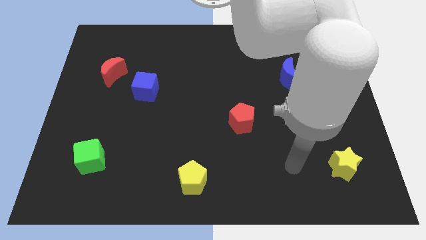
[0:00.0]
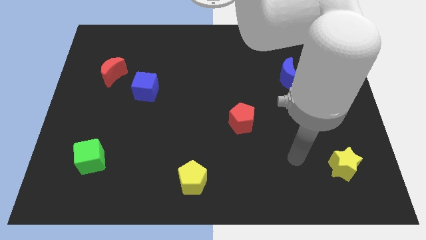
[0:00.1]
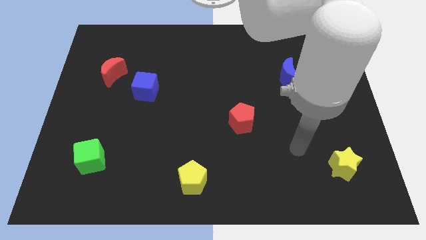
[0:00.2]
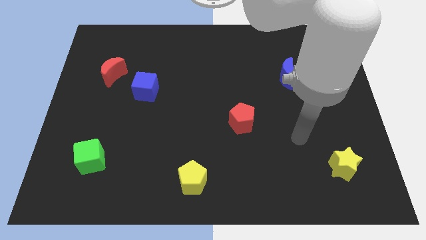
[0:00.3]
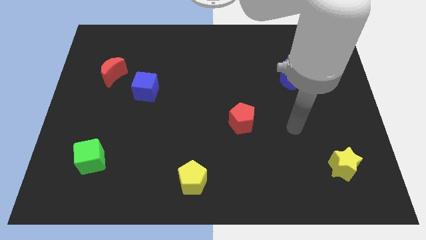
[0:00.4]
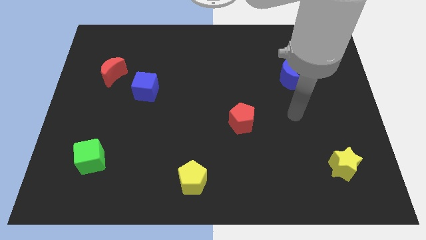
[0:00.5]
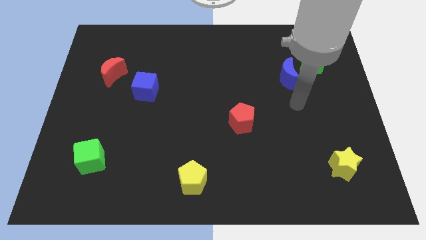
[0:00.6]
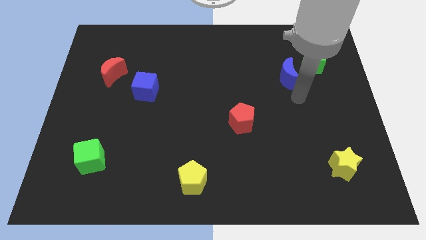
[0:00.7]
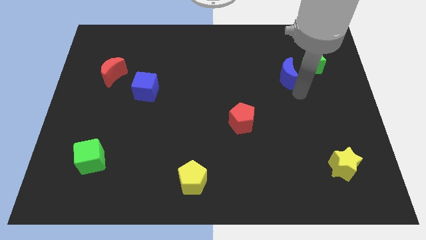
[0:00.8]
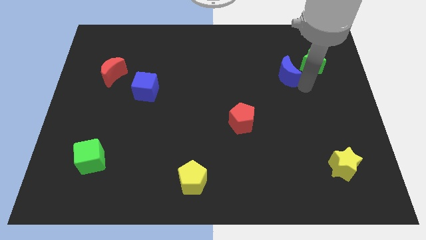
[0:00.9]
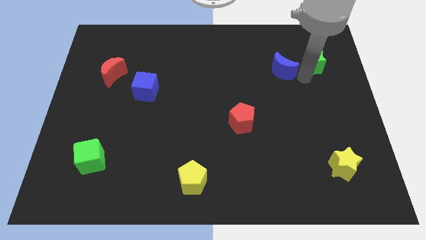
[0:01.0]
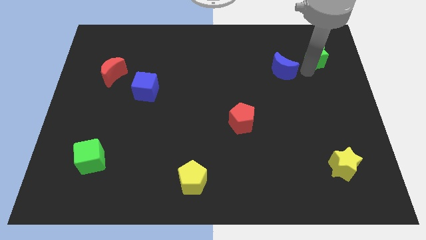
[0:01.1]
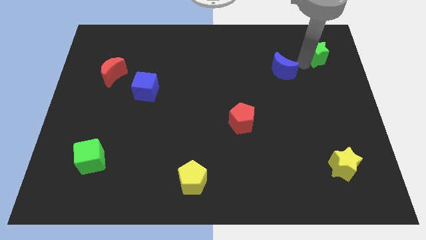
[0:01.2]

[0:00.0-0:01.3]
separate the blue moon from the green star

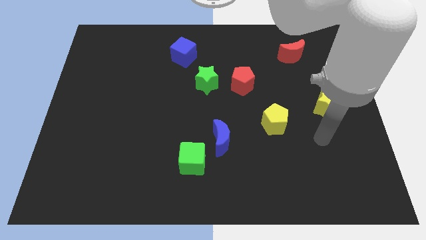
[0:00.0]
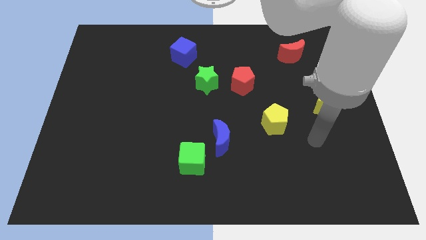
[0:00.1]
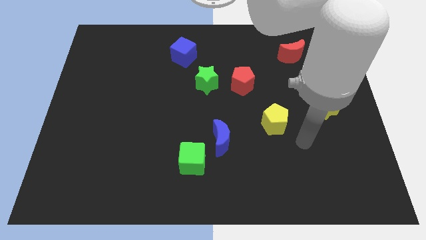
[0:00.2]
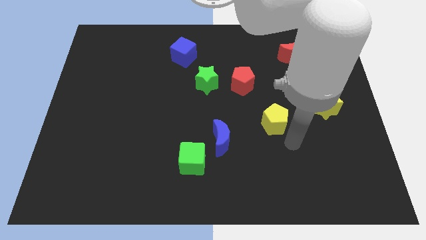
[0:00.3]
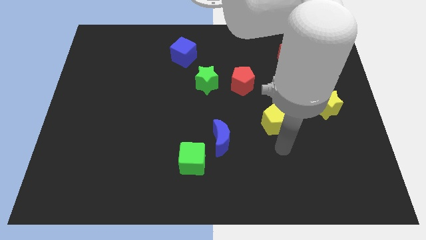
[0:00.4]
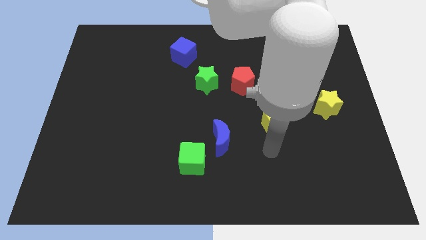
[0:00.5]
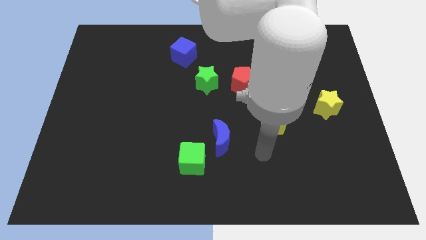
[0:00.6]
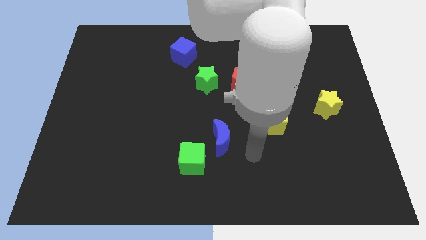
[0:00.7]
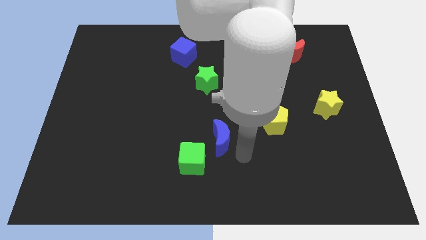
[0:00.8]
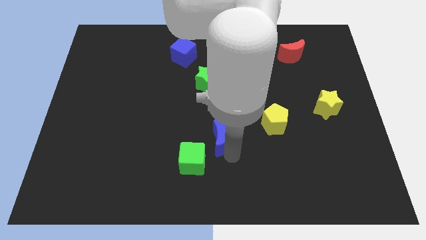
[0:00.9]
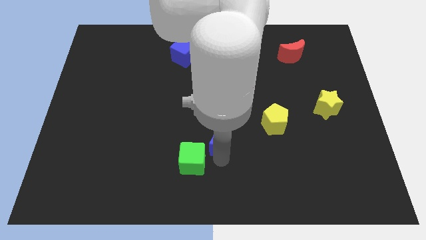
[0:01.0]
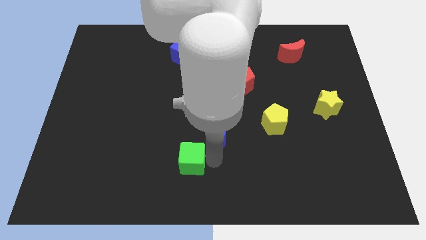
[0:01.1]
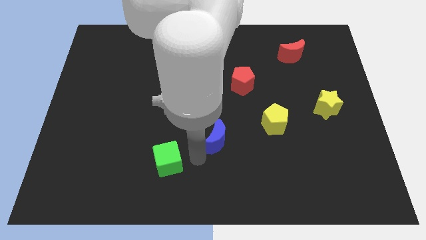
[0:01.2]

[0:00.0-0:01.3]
pull the blue moon apart from the green cube

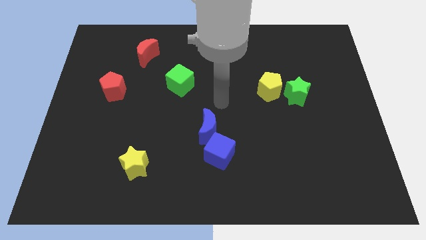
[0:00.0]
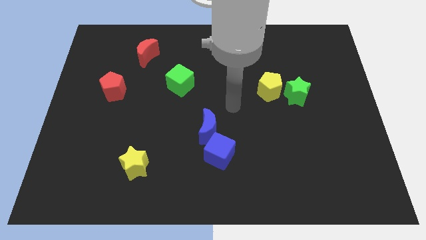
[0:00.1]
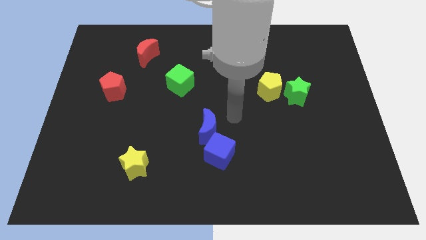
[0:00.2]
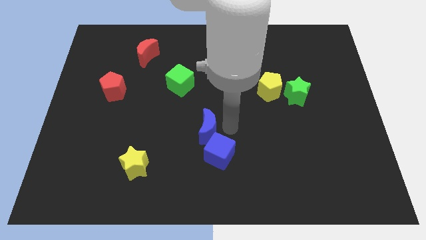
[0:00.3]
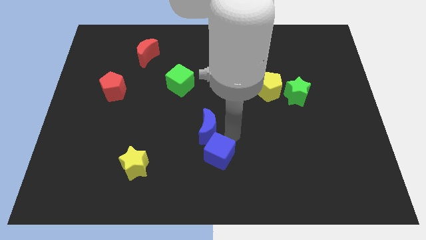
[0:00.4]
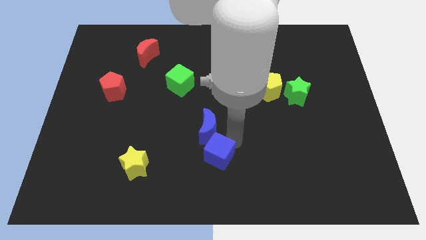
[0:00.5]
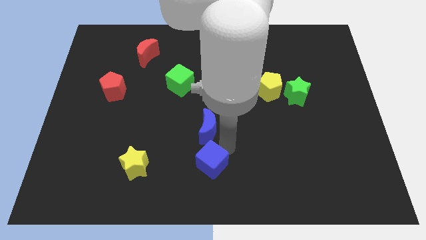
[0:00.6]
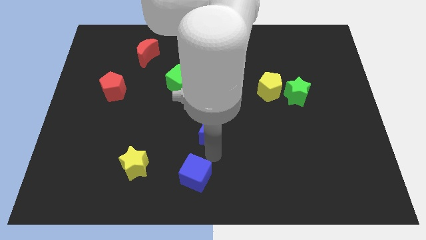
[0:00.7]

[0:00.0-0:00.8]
move the blue moon away from the blue cube

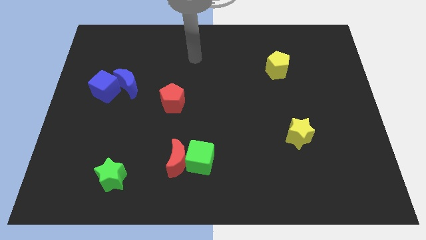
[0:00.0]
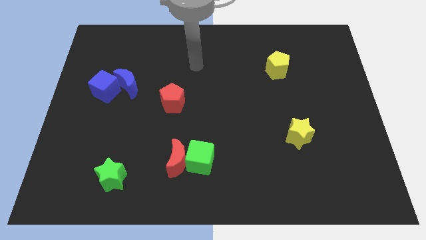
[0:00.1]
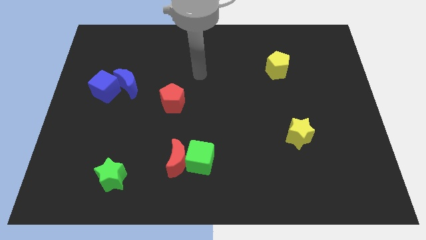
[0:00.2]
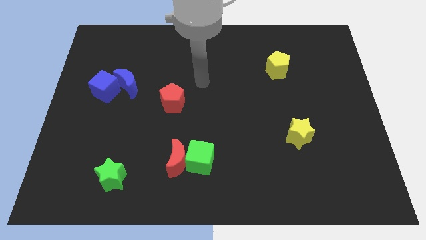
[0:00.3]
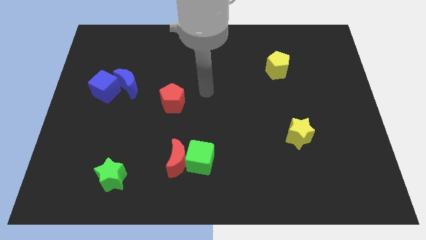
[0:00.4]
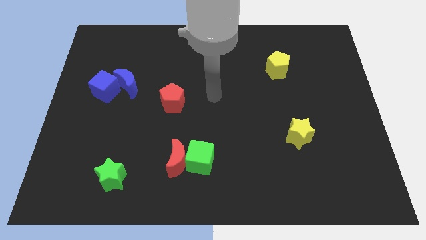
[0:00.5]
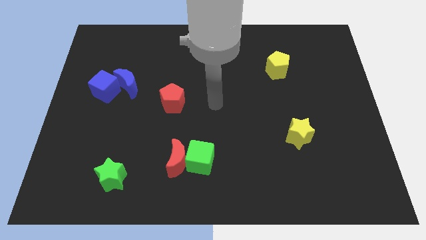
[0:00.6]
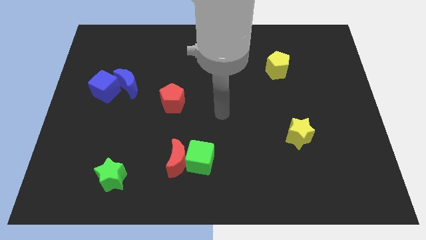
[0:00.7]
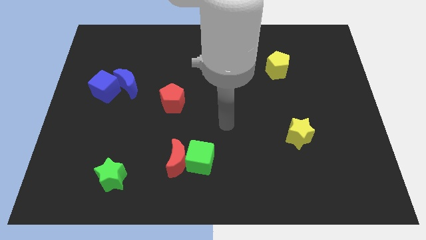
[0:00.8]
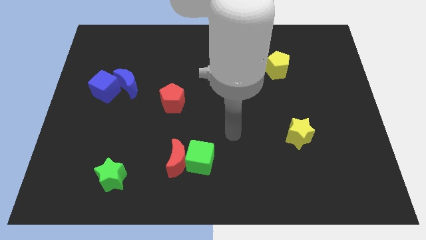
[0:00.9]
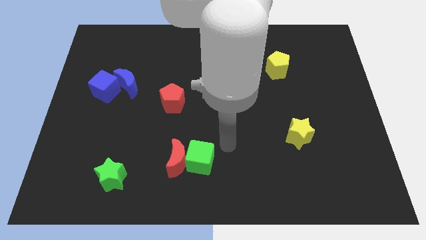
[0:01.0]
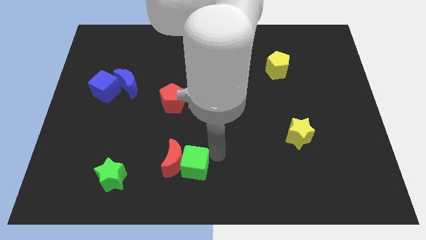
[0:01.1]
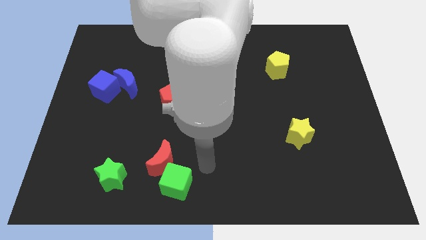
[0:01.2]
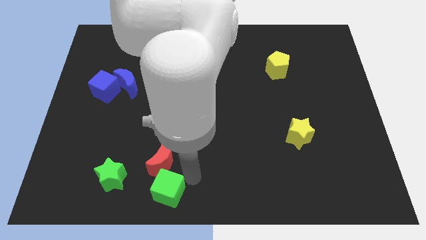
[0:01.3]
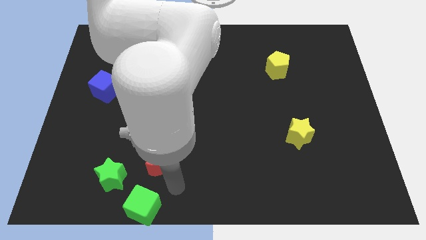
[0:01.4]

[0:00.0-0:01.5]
pull the red moon apart from the green cube

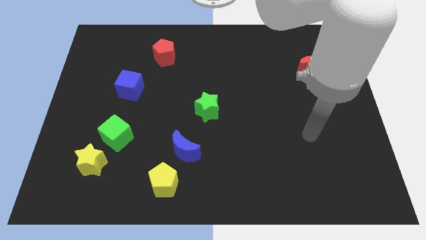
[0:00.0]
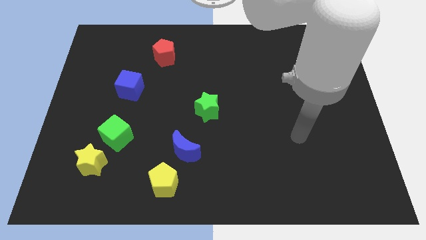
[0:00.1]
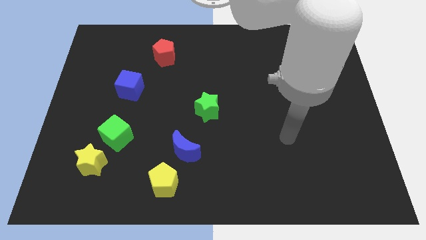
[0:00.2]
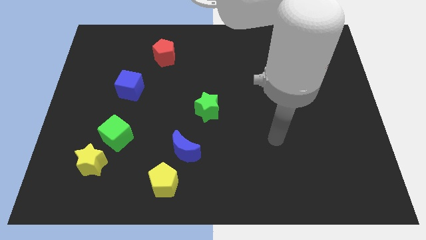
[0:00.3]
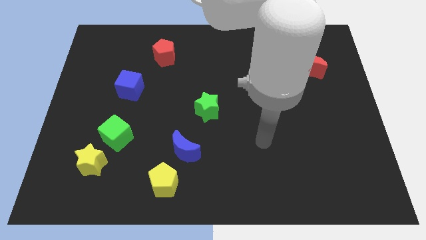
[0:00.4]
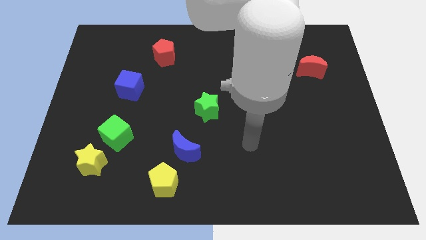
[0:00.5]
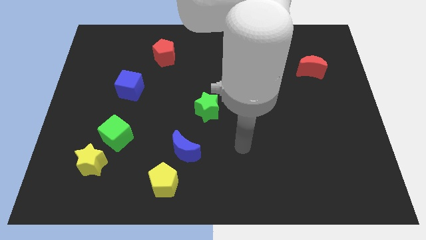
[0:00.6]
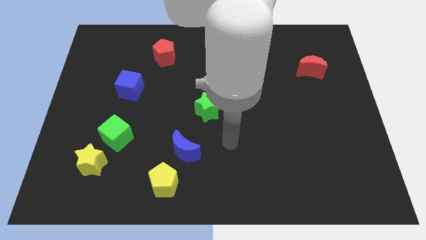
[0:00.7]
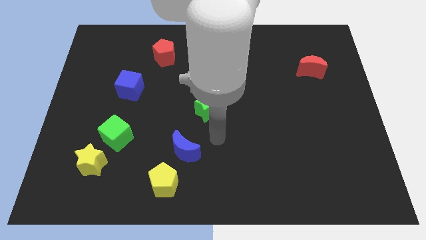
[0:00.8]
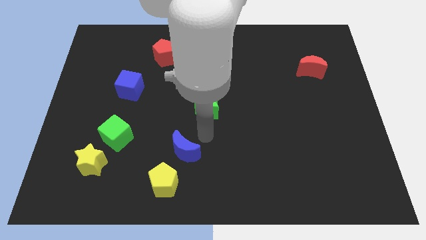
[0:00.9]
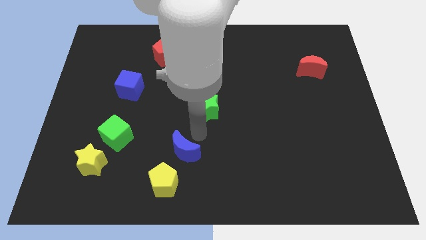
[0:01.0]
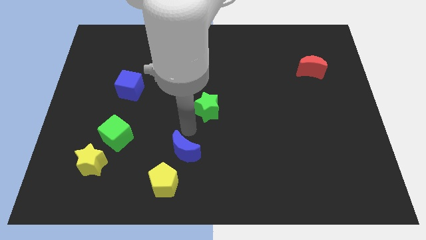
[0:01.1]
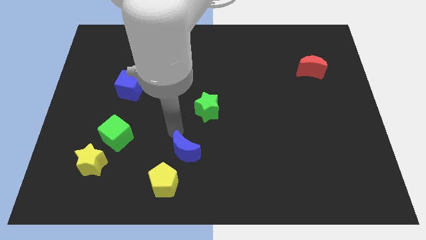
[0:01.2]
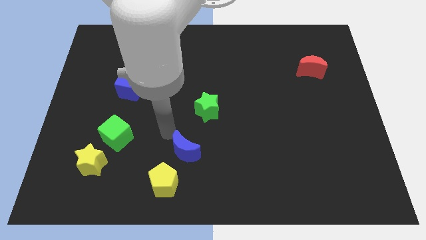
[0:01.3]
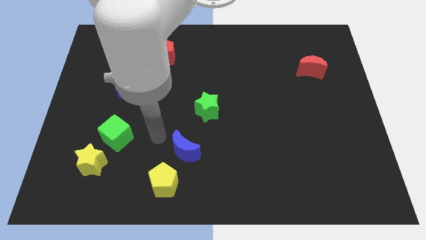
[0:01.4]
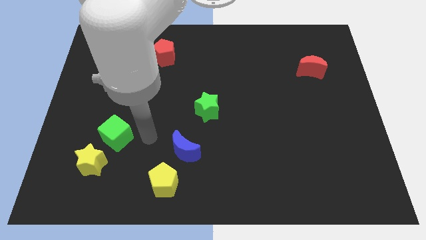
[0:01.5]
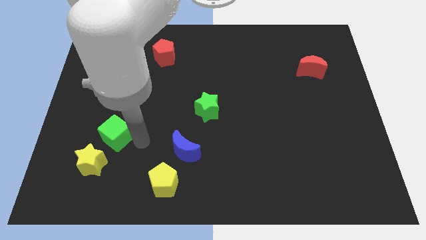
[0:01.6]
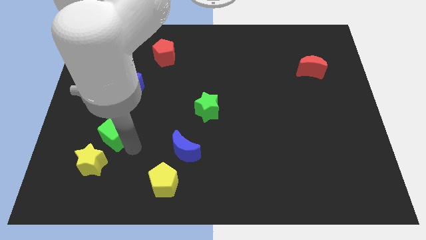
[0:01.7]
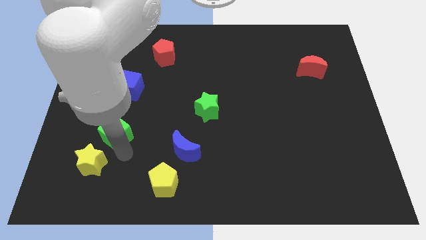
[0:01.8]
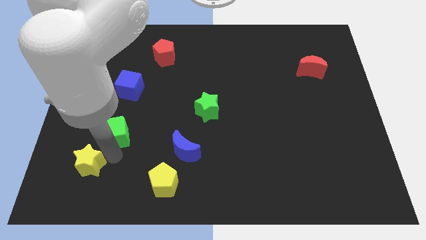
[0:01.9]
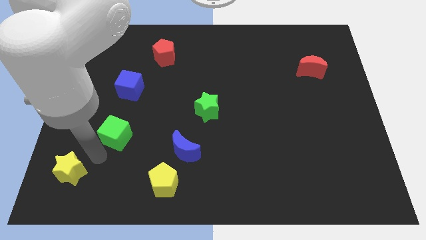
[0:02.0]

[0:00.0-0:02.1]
separate the green cube from the yellow star

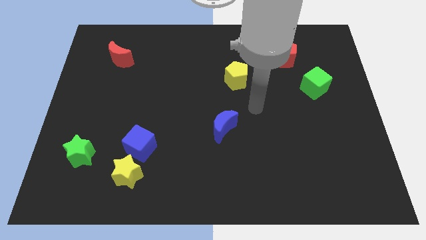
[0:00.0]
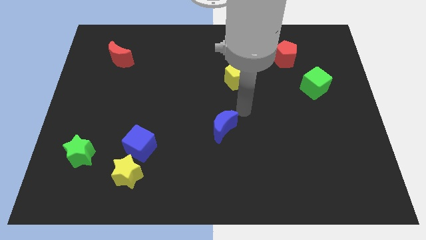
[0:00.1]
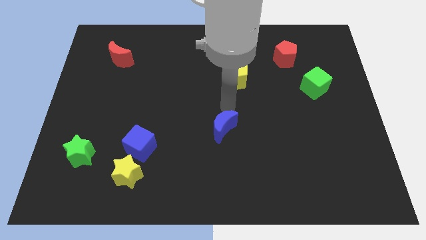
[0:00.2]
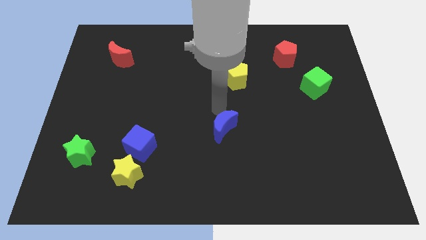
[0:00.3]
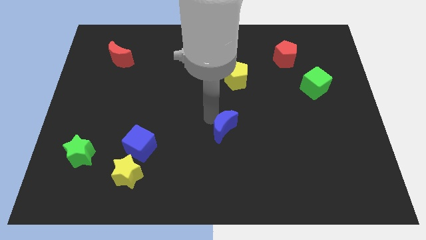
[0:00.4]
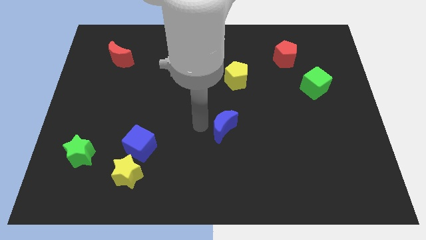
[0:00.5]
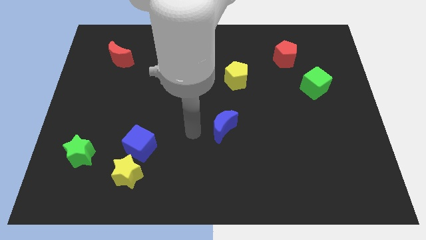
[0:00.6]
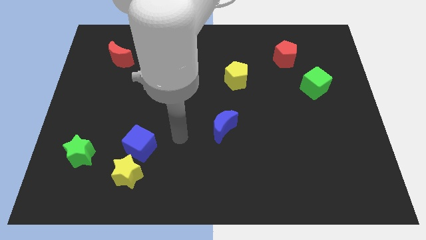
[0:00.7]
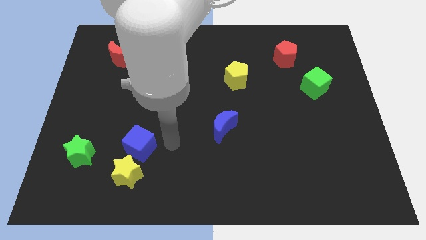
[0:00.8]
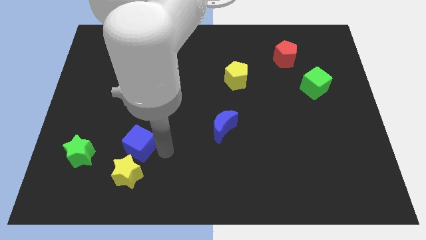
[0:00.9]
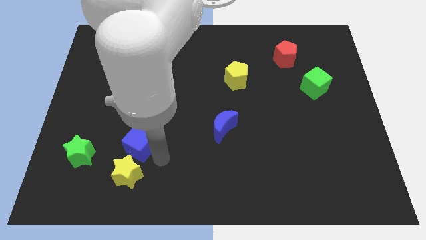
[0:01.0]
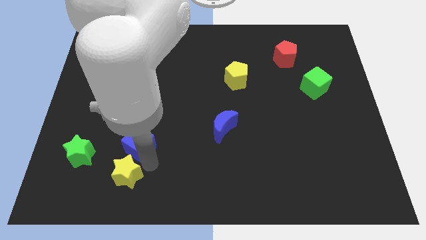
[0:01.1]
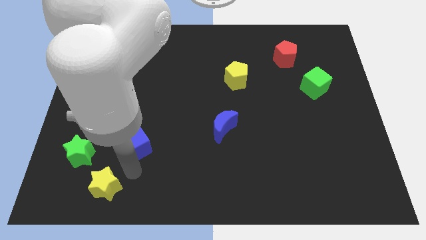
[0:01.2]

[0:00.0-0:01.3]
separate the blue cube from the yellow star

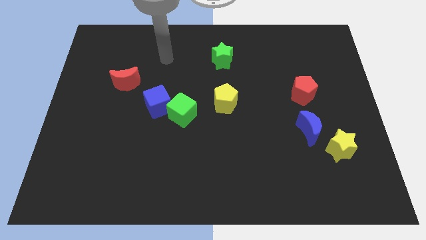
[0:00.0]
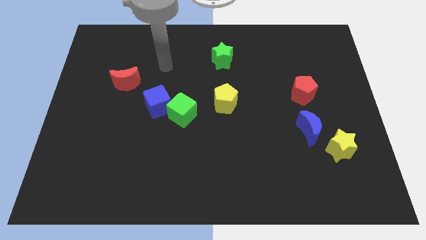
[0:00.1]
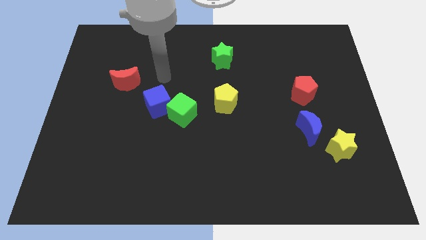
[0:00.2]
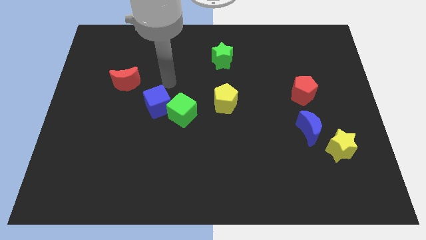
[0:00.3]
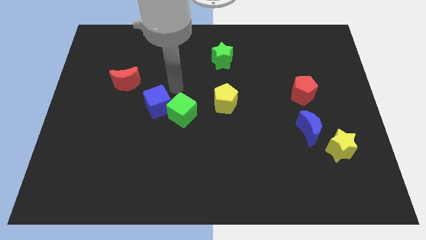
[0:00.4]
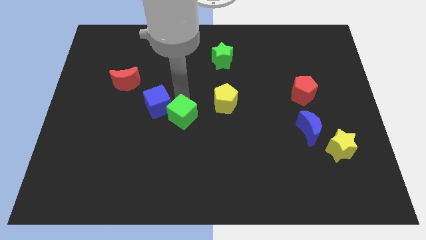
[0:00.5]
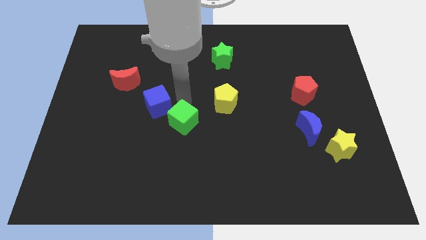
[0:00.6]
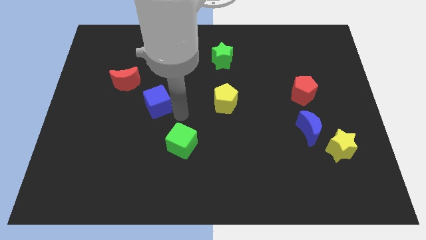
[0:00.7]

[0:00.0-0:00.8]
move the blue cube away from the green cube
